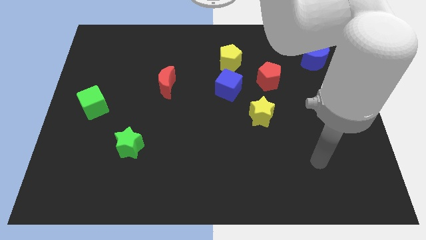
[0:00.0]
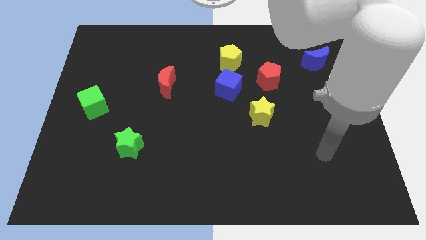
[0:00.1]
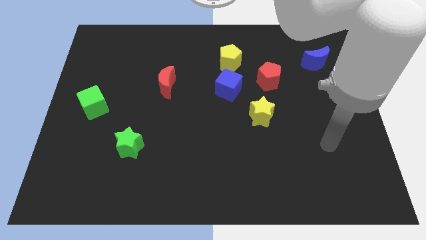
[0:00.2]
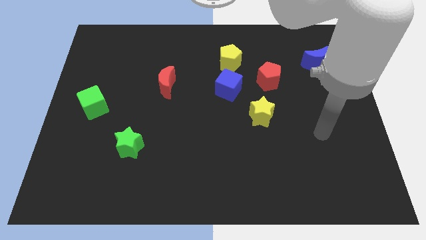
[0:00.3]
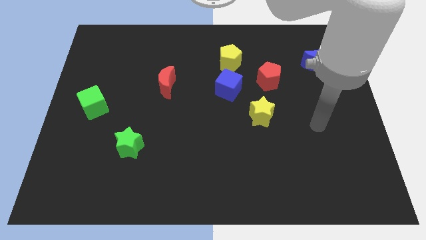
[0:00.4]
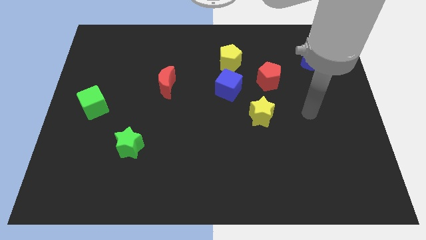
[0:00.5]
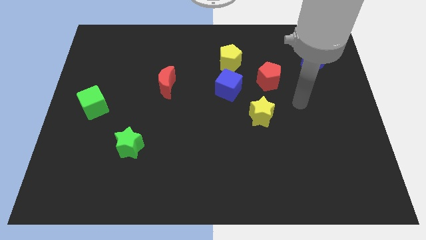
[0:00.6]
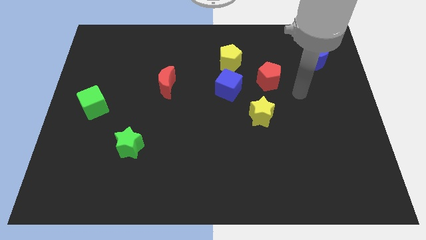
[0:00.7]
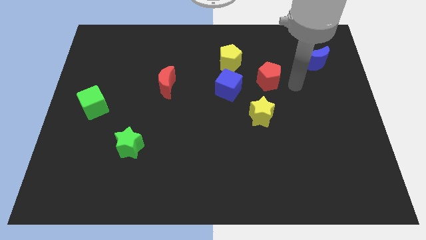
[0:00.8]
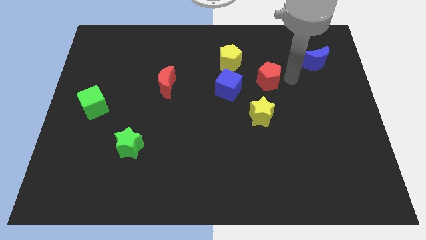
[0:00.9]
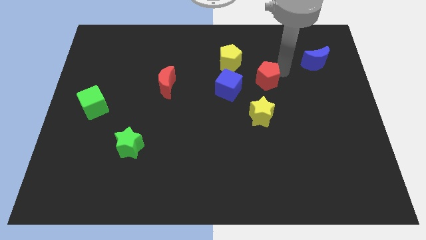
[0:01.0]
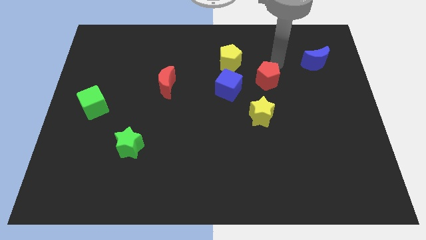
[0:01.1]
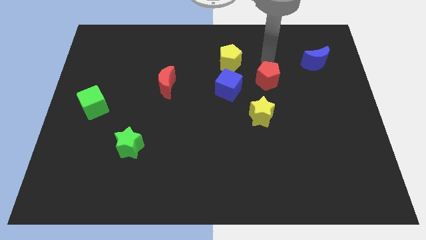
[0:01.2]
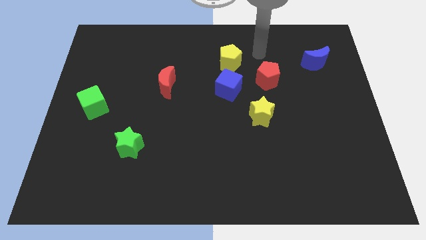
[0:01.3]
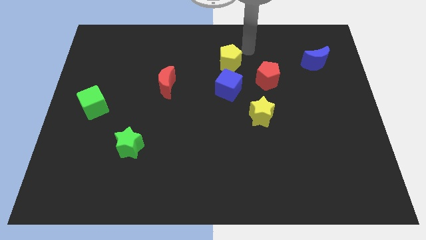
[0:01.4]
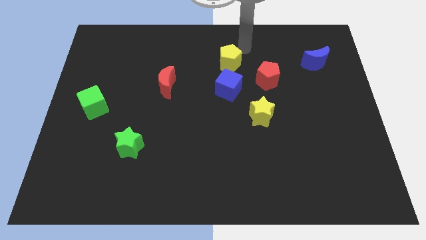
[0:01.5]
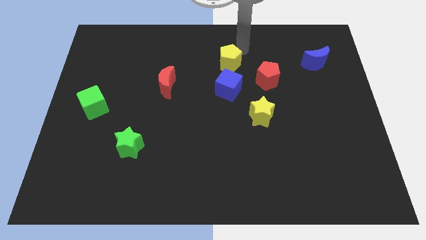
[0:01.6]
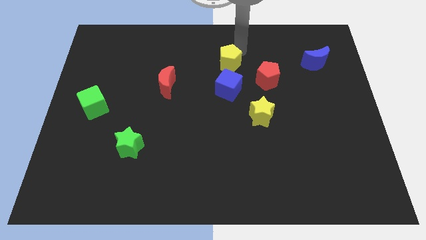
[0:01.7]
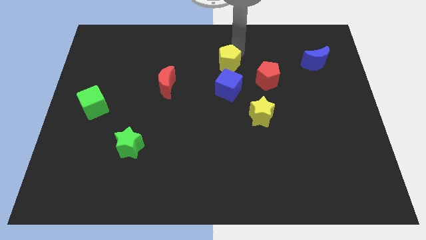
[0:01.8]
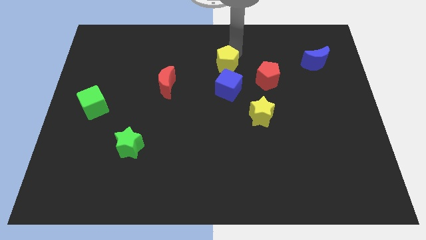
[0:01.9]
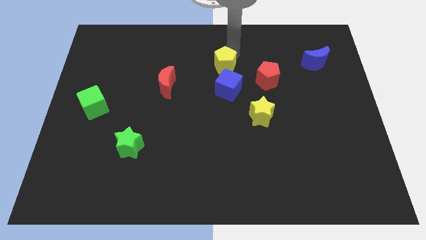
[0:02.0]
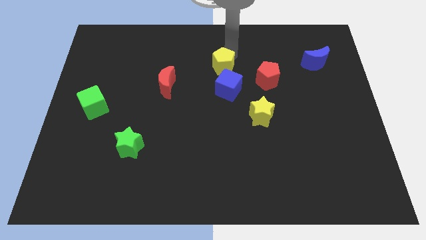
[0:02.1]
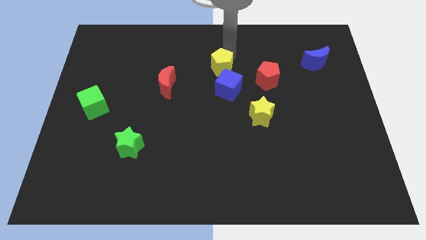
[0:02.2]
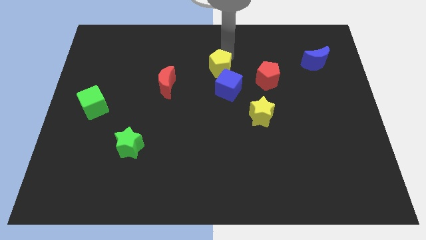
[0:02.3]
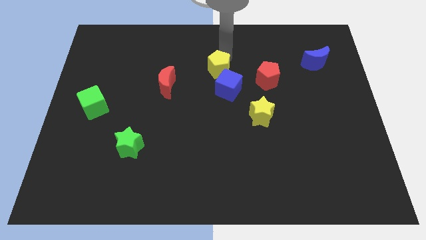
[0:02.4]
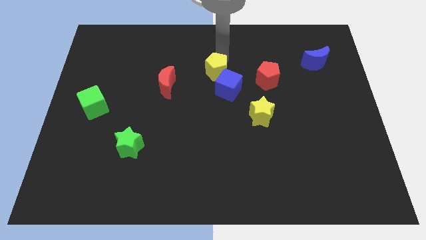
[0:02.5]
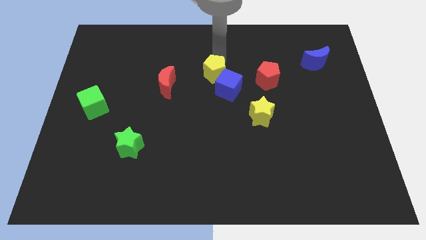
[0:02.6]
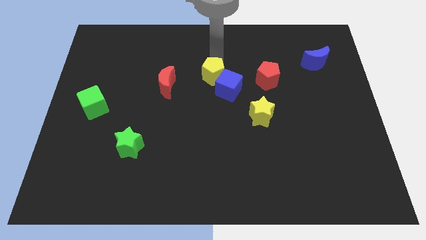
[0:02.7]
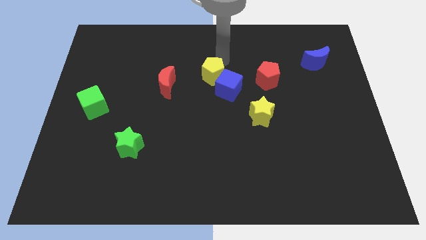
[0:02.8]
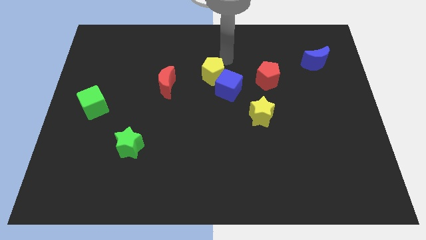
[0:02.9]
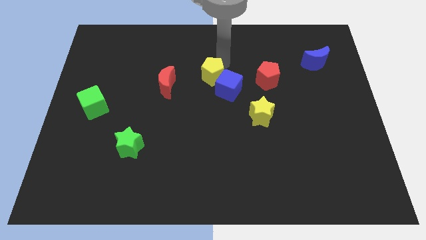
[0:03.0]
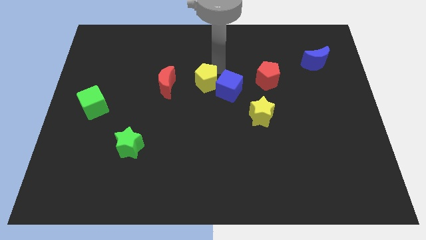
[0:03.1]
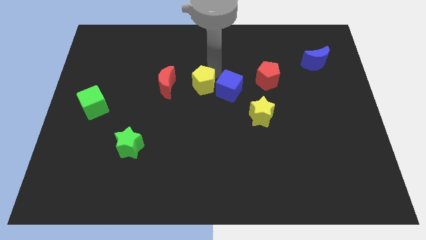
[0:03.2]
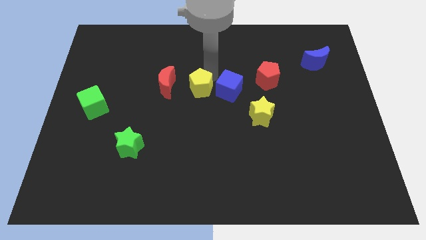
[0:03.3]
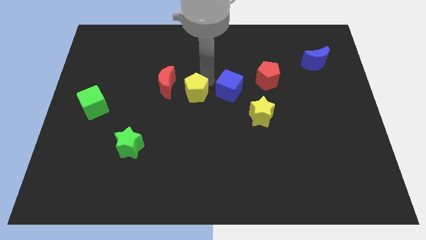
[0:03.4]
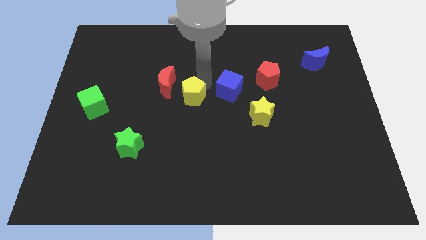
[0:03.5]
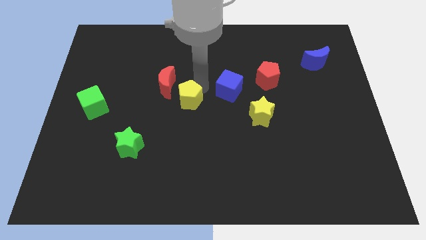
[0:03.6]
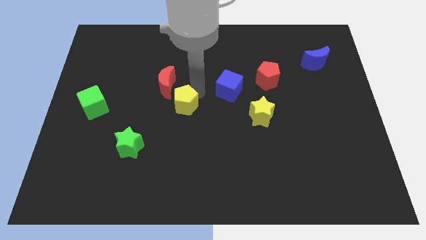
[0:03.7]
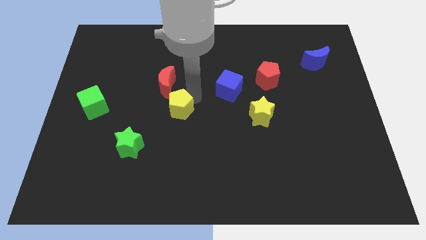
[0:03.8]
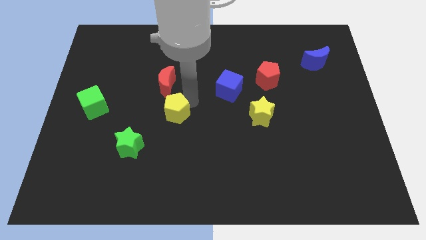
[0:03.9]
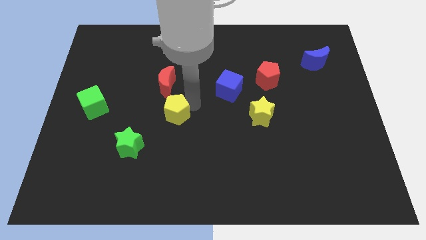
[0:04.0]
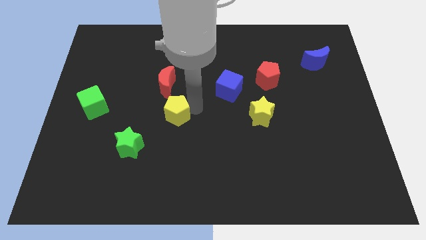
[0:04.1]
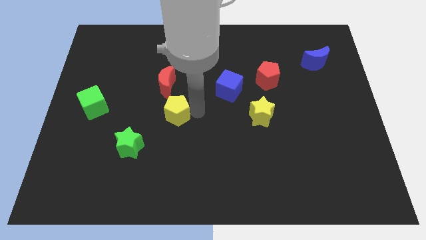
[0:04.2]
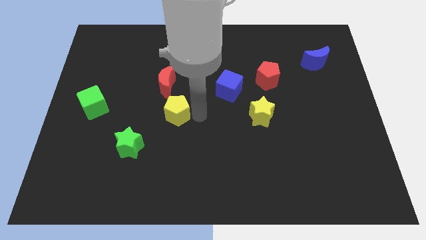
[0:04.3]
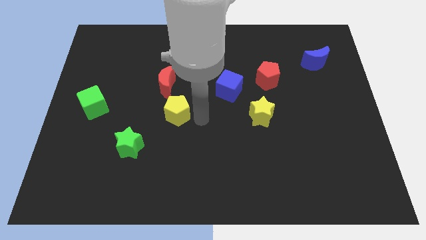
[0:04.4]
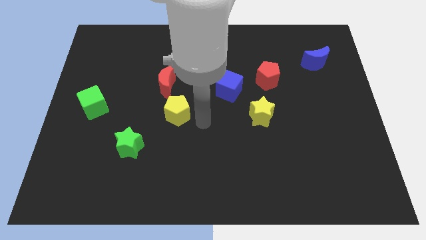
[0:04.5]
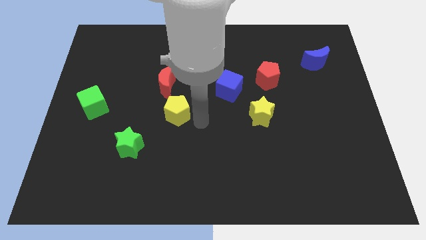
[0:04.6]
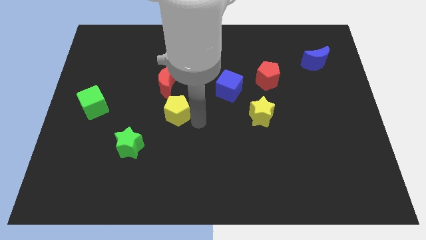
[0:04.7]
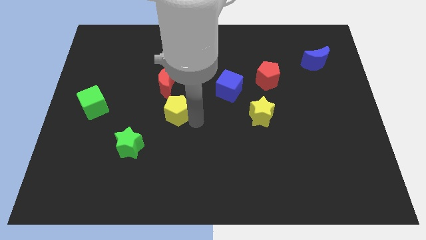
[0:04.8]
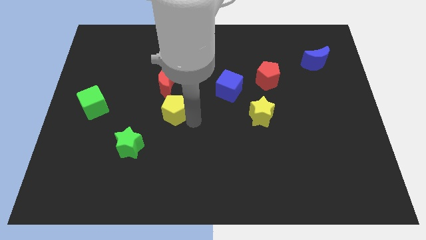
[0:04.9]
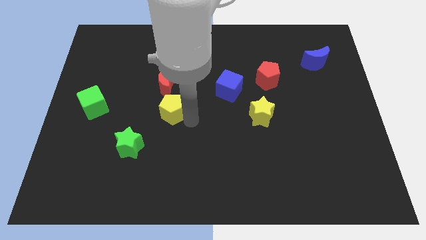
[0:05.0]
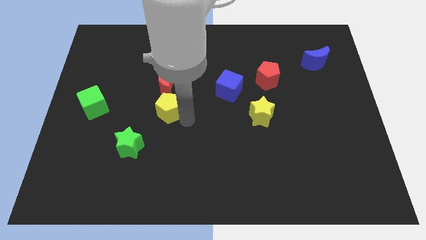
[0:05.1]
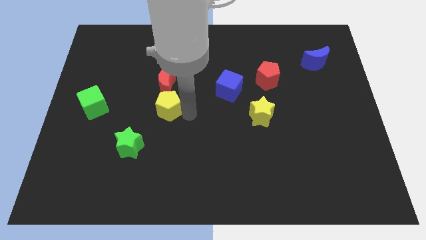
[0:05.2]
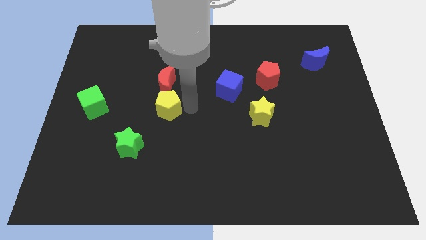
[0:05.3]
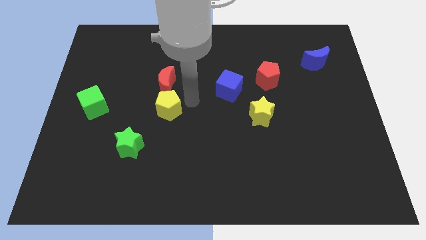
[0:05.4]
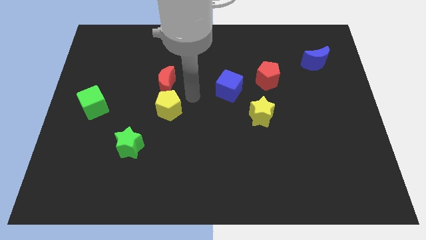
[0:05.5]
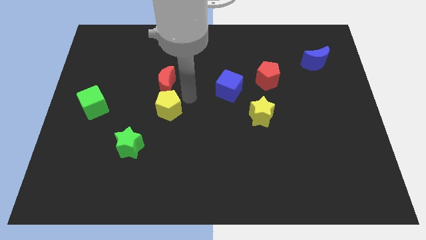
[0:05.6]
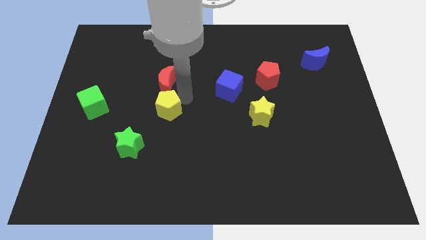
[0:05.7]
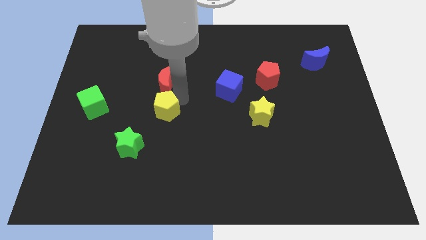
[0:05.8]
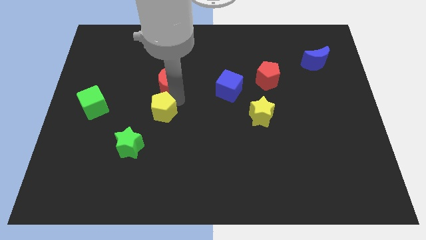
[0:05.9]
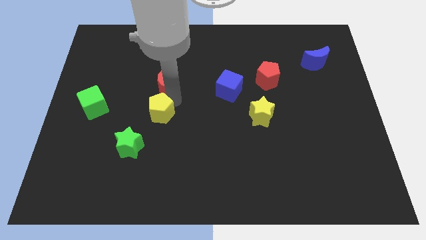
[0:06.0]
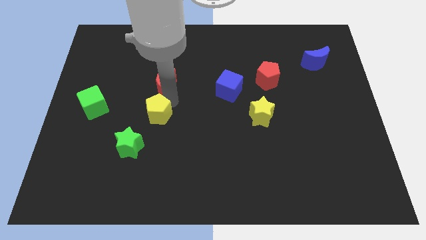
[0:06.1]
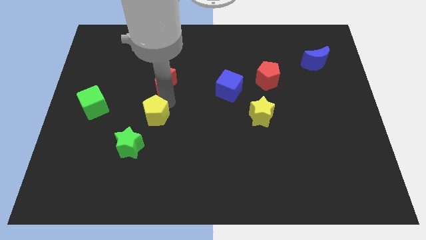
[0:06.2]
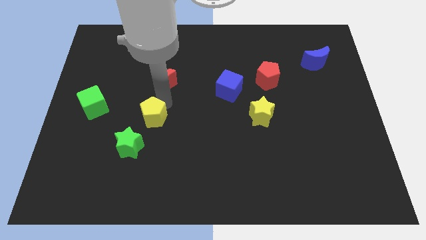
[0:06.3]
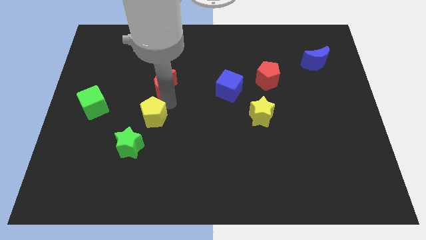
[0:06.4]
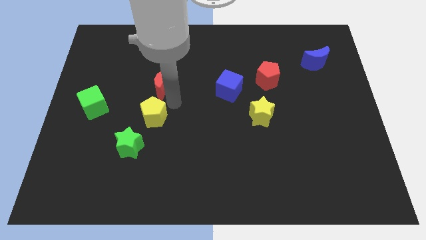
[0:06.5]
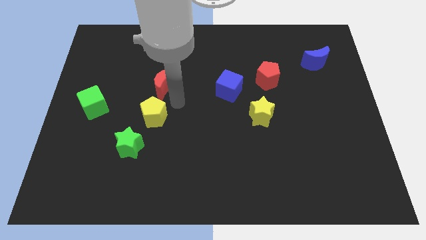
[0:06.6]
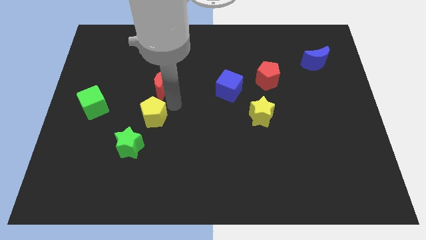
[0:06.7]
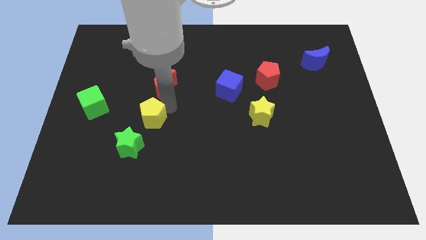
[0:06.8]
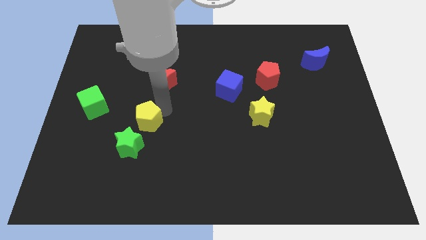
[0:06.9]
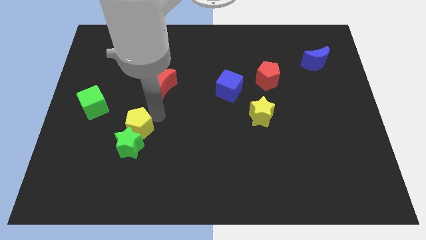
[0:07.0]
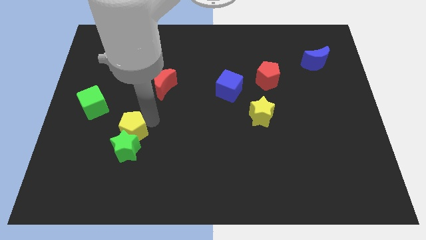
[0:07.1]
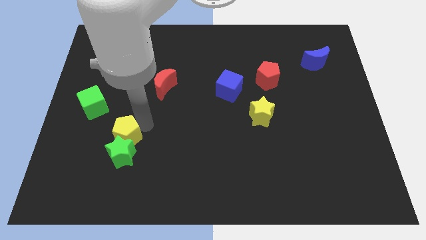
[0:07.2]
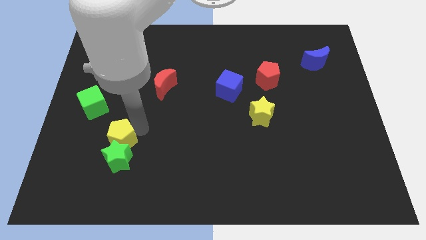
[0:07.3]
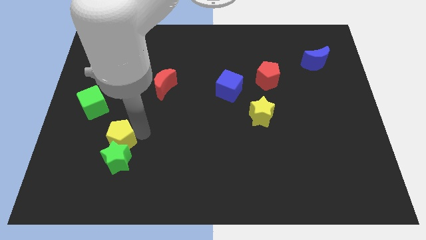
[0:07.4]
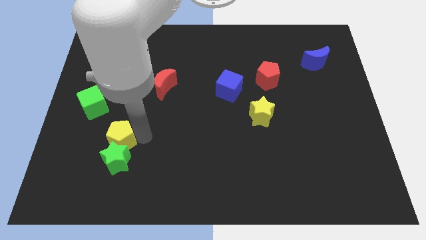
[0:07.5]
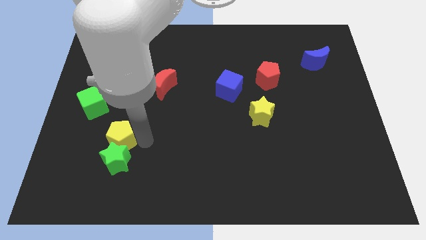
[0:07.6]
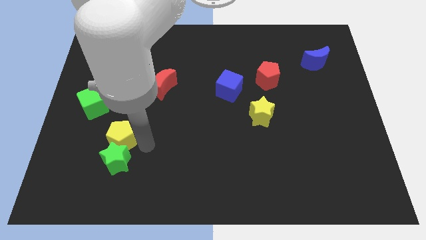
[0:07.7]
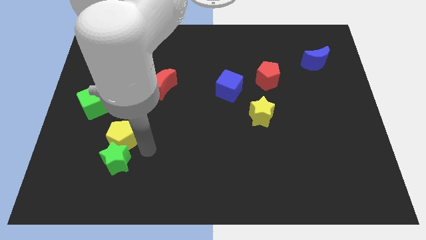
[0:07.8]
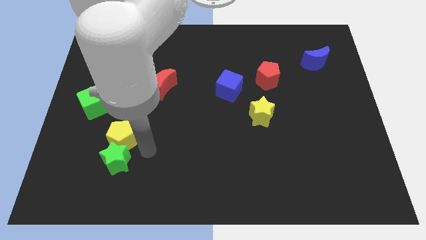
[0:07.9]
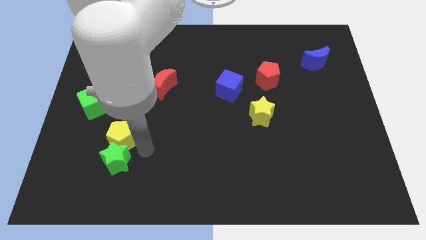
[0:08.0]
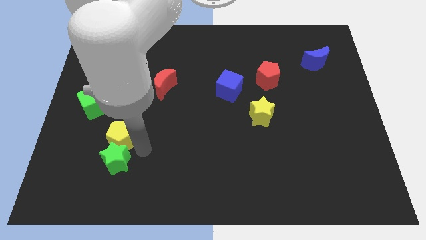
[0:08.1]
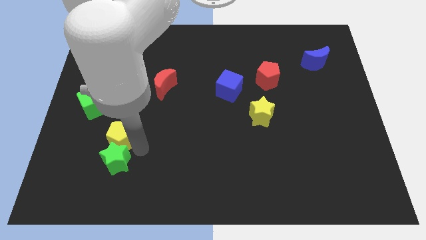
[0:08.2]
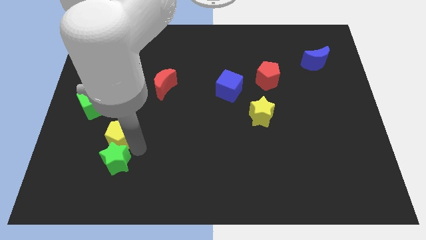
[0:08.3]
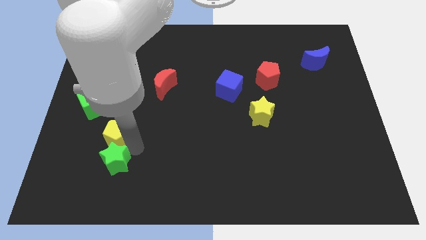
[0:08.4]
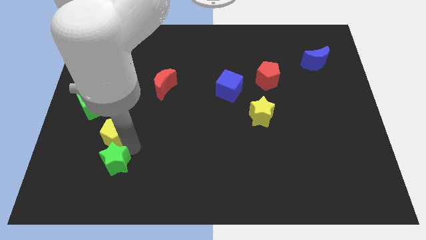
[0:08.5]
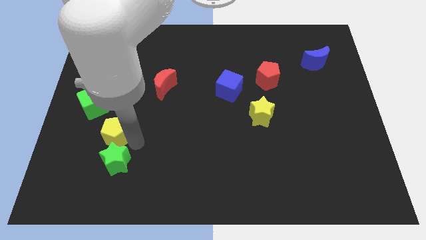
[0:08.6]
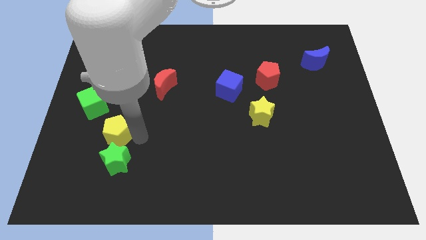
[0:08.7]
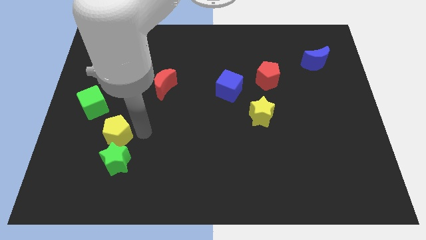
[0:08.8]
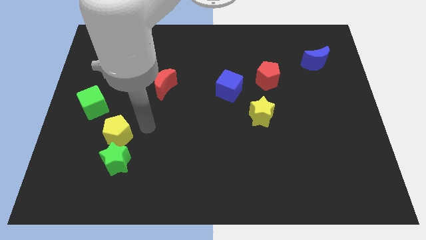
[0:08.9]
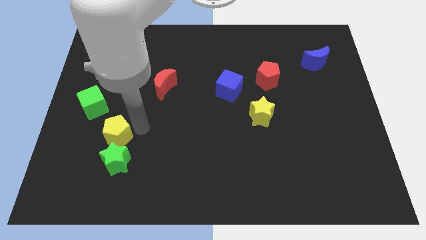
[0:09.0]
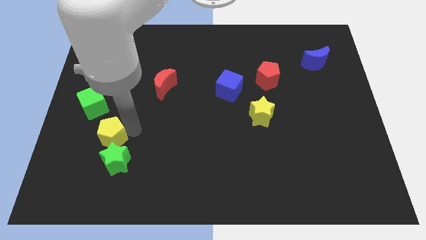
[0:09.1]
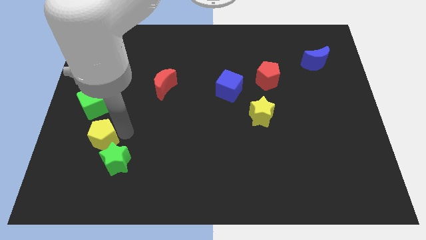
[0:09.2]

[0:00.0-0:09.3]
slide the yellow pentagon below the green cube
